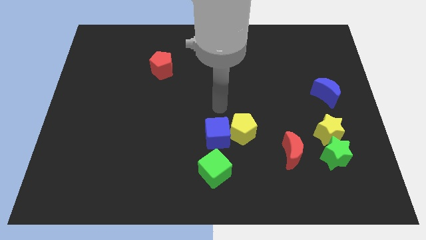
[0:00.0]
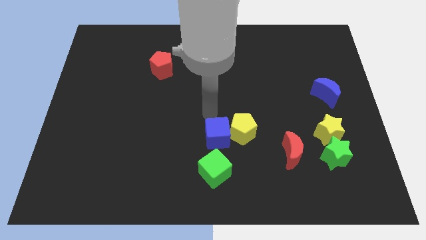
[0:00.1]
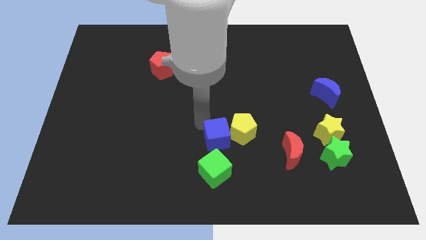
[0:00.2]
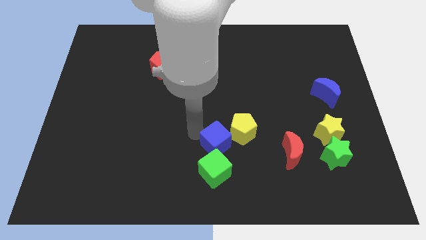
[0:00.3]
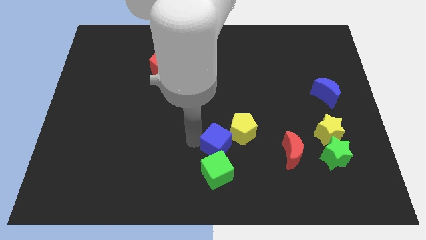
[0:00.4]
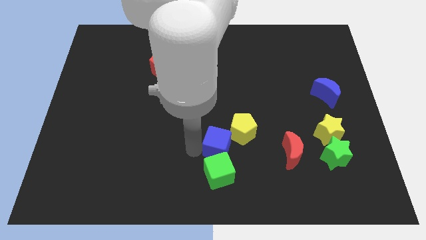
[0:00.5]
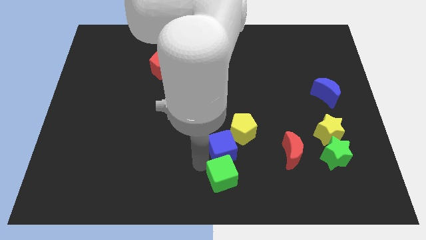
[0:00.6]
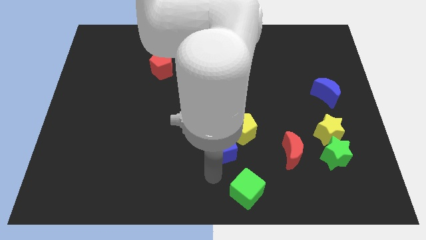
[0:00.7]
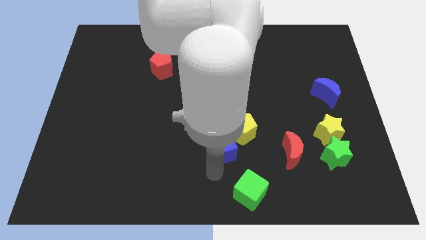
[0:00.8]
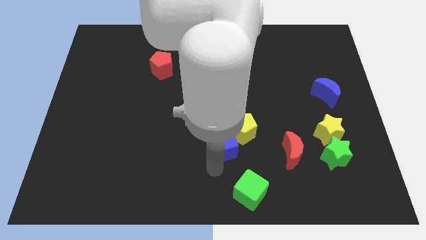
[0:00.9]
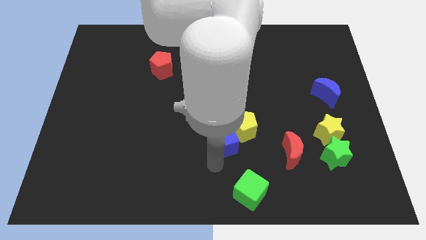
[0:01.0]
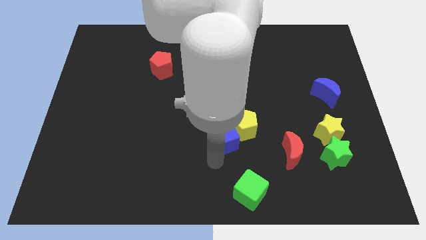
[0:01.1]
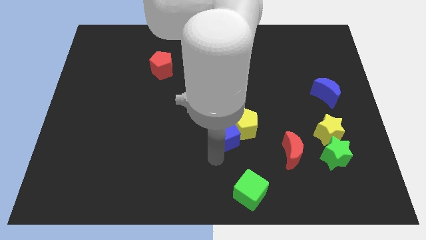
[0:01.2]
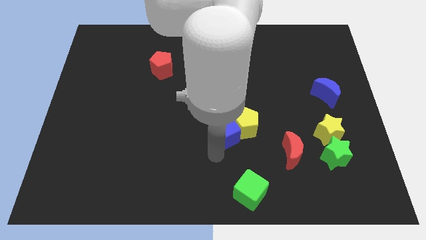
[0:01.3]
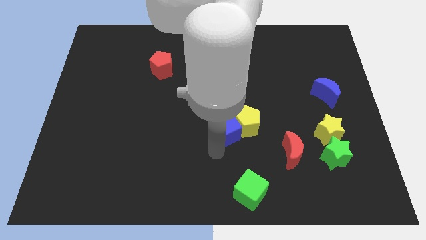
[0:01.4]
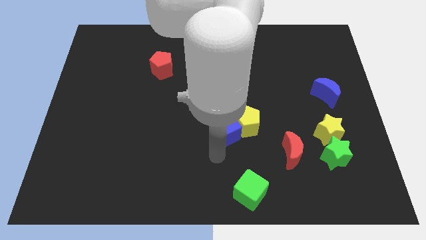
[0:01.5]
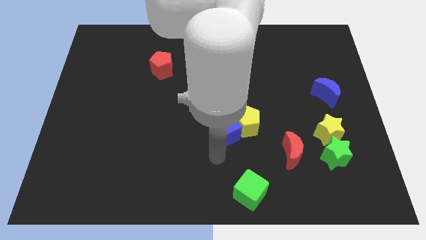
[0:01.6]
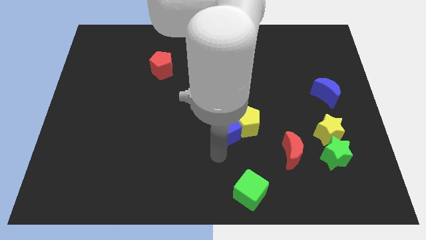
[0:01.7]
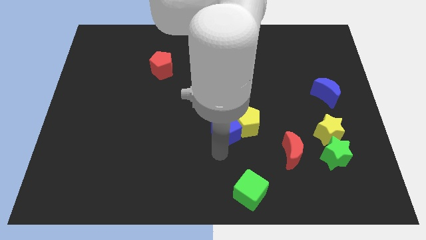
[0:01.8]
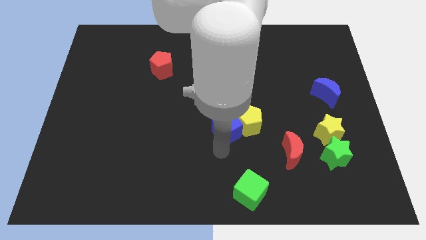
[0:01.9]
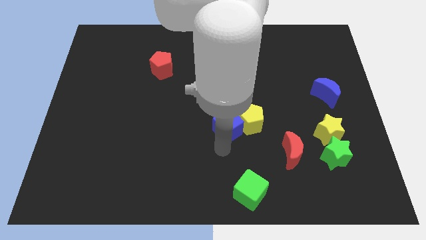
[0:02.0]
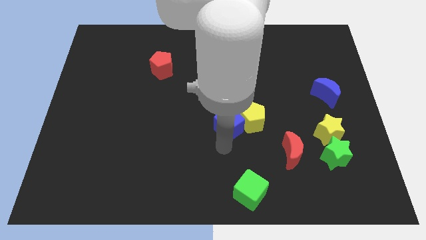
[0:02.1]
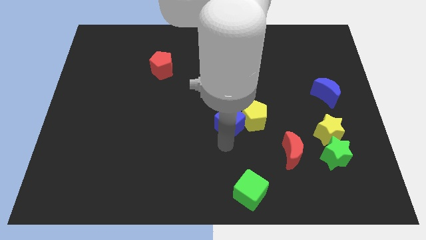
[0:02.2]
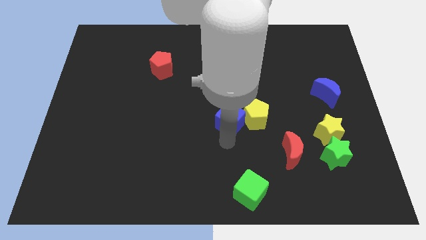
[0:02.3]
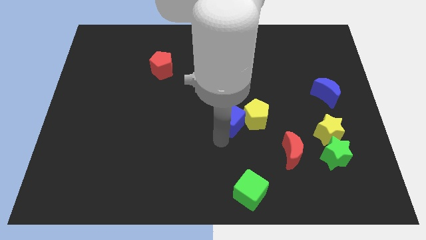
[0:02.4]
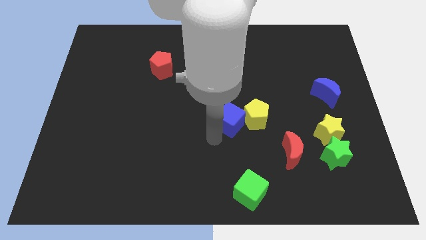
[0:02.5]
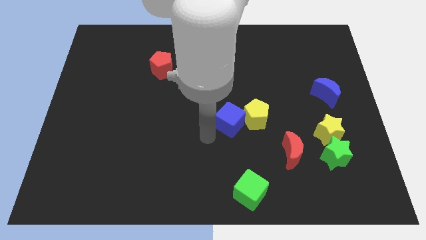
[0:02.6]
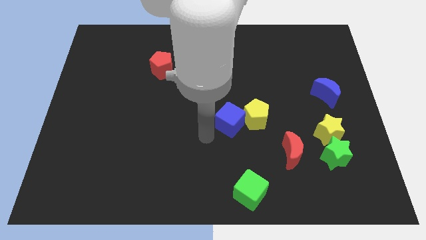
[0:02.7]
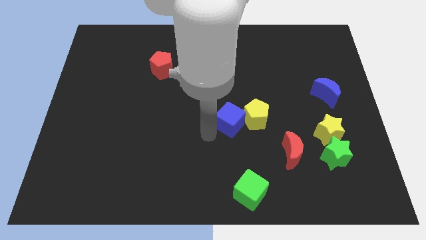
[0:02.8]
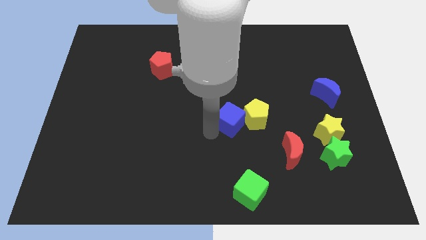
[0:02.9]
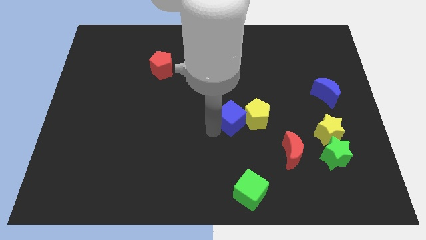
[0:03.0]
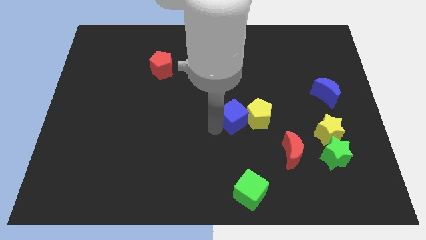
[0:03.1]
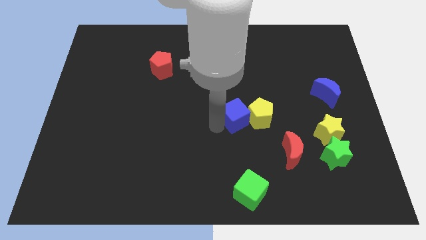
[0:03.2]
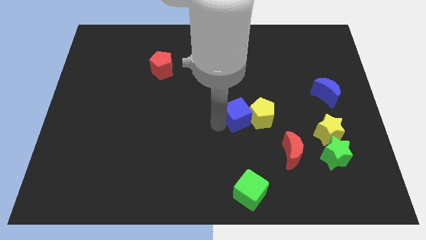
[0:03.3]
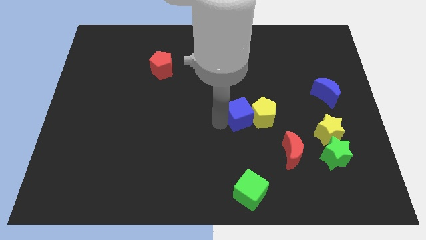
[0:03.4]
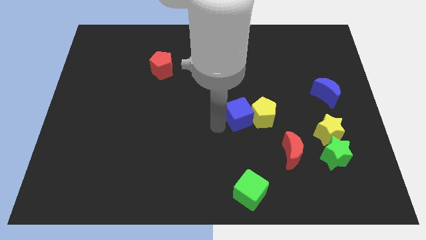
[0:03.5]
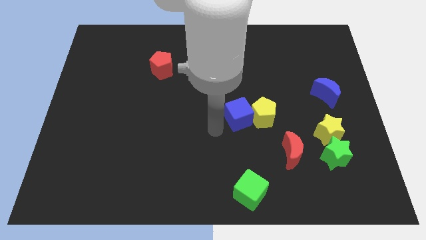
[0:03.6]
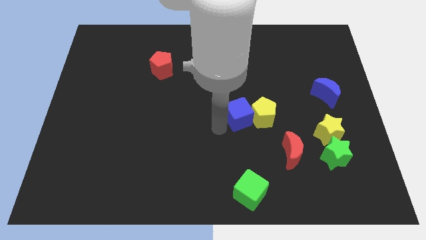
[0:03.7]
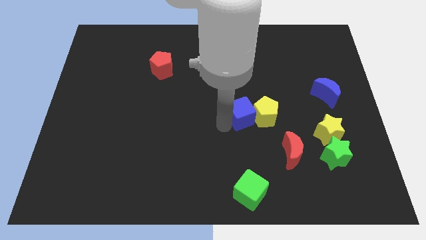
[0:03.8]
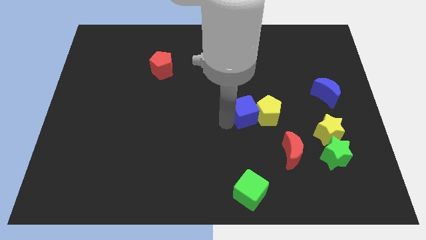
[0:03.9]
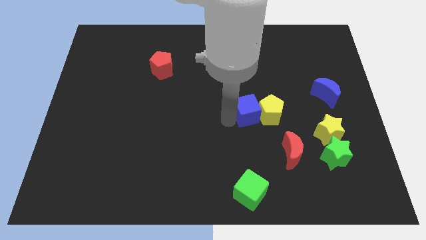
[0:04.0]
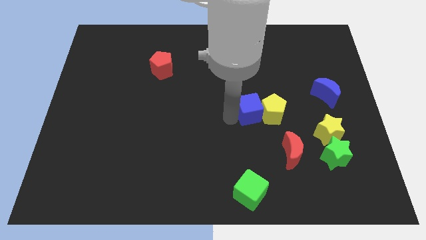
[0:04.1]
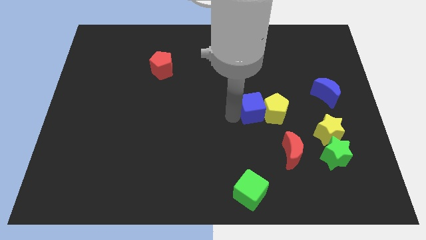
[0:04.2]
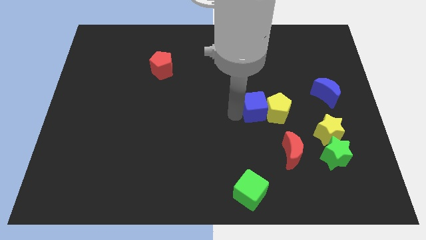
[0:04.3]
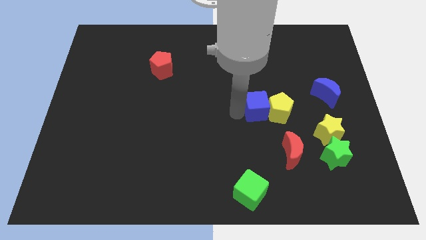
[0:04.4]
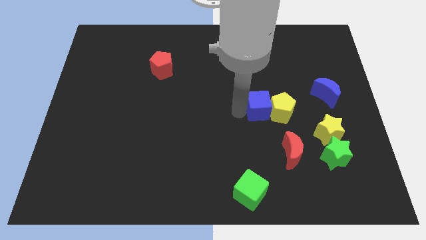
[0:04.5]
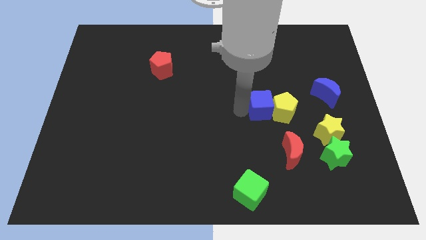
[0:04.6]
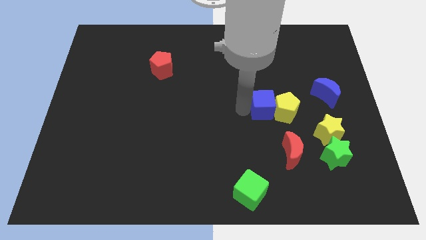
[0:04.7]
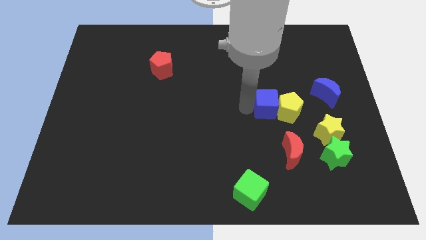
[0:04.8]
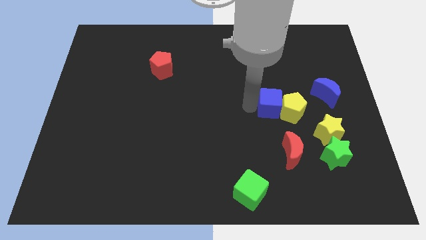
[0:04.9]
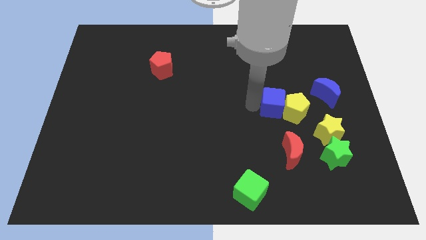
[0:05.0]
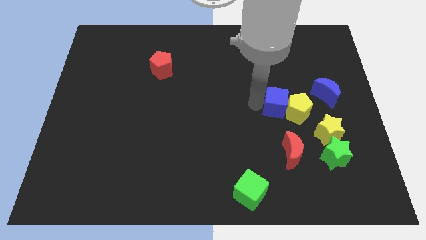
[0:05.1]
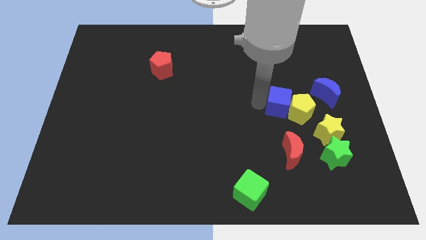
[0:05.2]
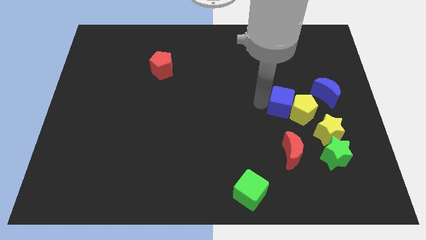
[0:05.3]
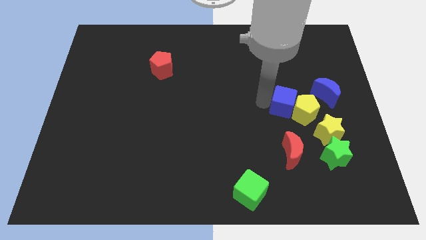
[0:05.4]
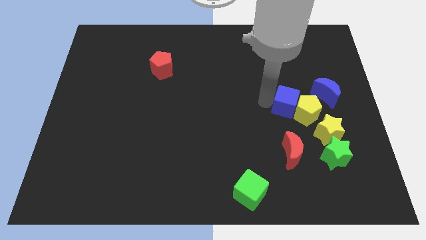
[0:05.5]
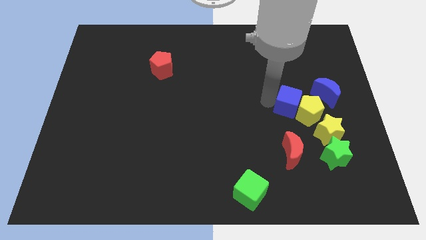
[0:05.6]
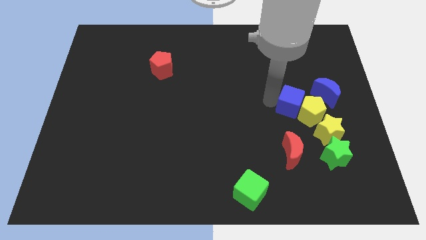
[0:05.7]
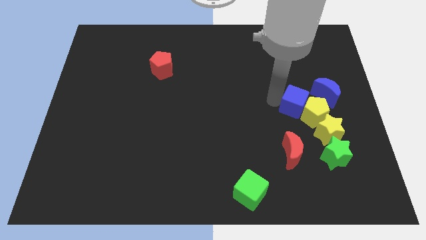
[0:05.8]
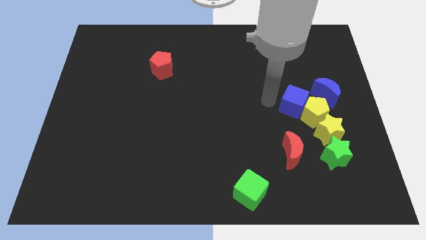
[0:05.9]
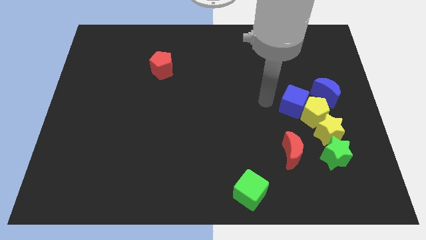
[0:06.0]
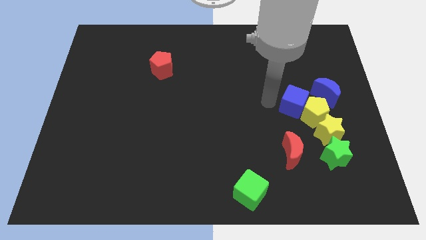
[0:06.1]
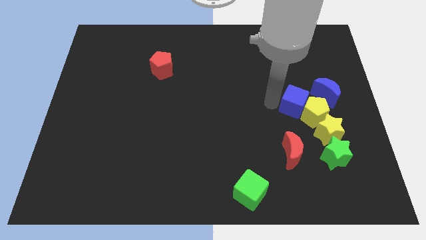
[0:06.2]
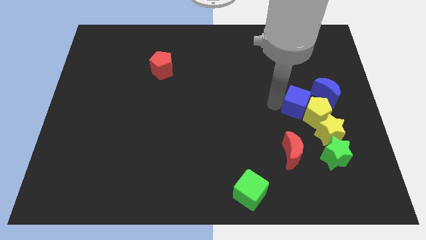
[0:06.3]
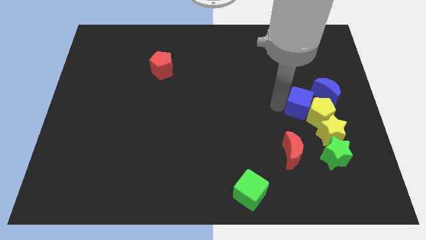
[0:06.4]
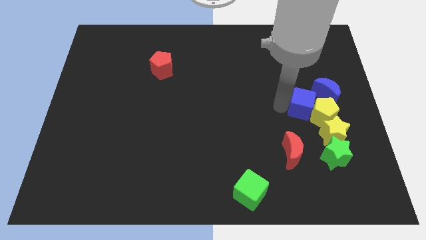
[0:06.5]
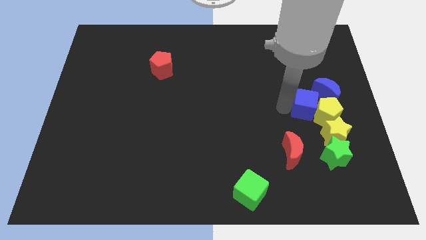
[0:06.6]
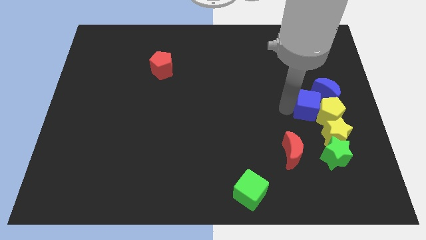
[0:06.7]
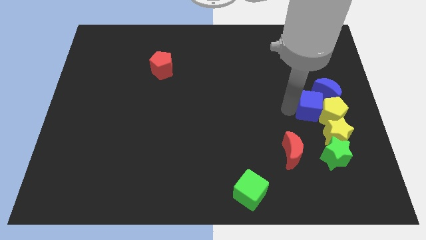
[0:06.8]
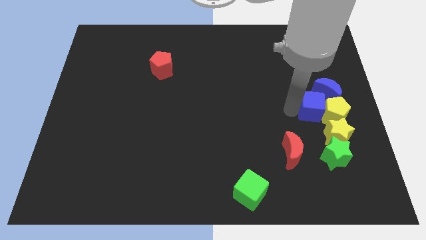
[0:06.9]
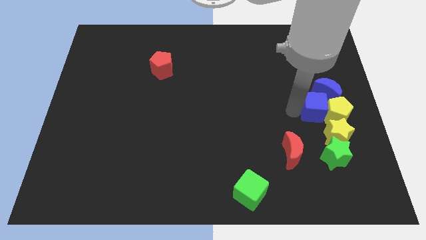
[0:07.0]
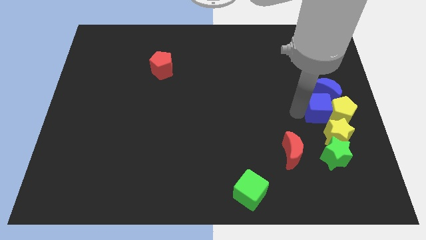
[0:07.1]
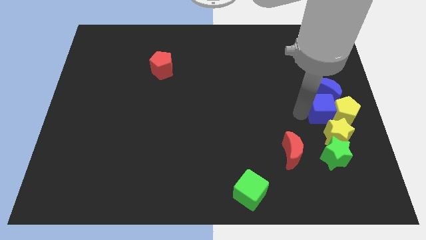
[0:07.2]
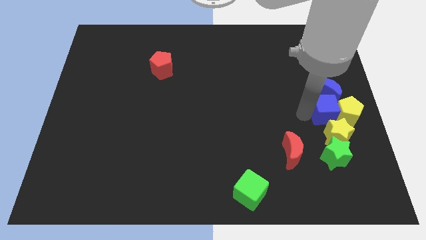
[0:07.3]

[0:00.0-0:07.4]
put the blue cube to the right side

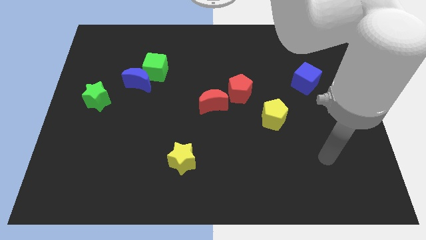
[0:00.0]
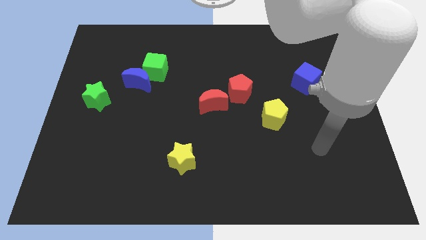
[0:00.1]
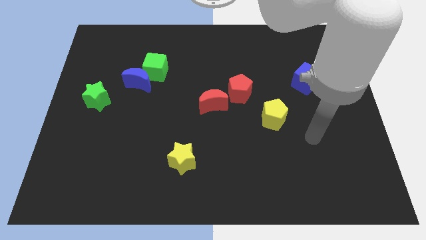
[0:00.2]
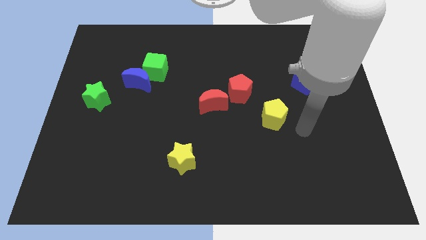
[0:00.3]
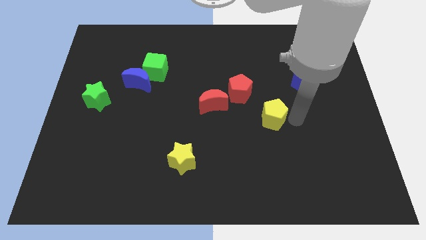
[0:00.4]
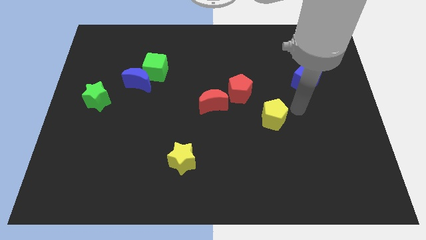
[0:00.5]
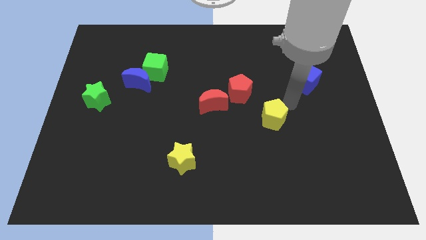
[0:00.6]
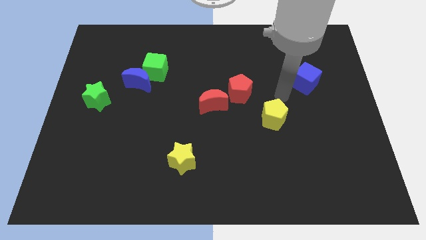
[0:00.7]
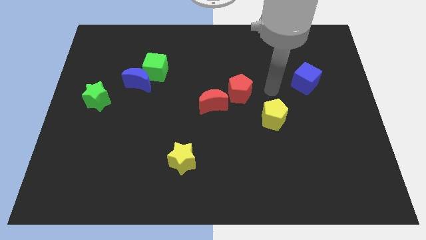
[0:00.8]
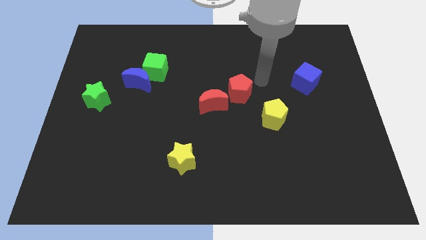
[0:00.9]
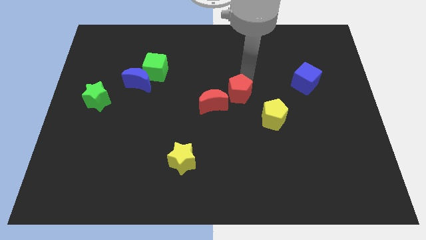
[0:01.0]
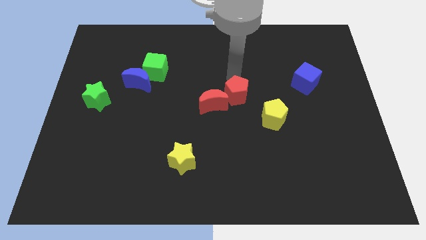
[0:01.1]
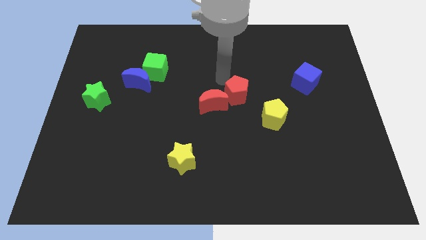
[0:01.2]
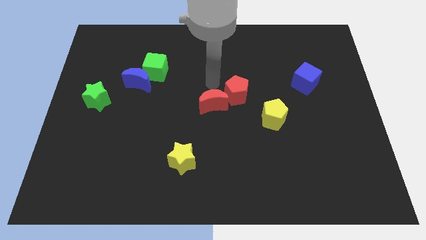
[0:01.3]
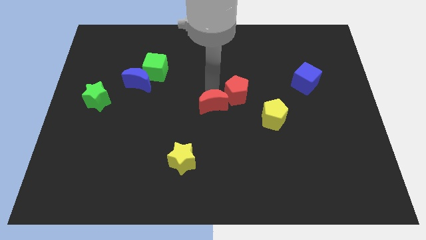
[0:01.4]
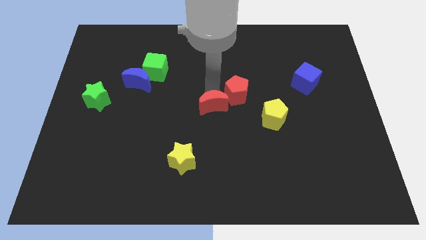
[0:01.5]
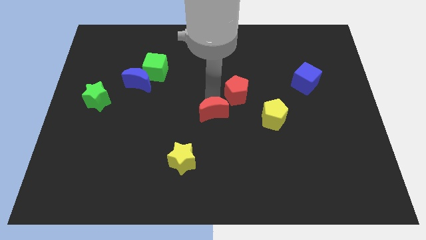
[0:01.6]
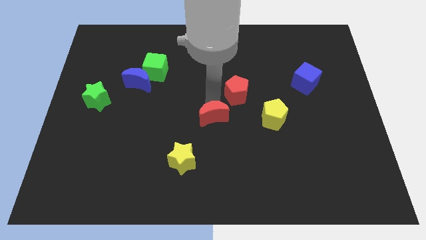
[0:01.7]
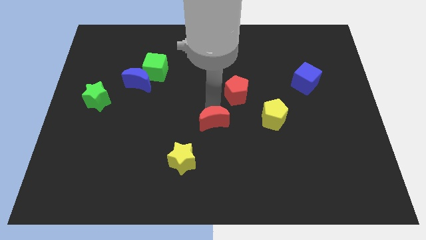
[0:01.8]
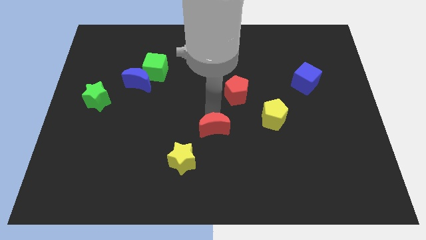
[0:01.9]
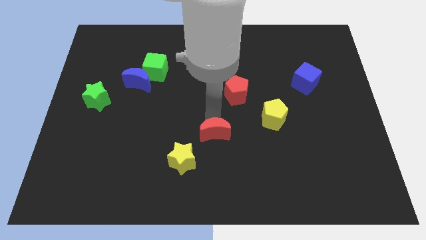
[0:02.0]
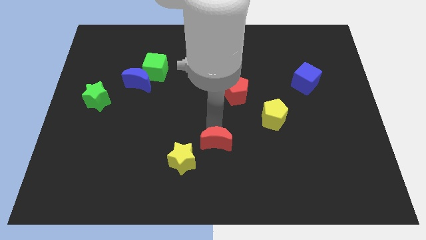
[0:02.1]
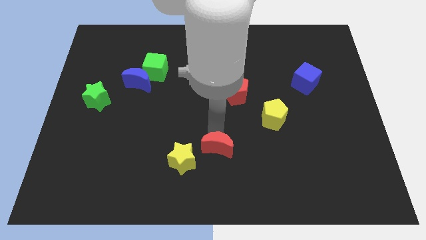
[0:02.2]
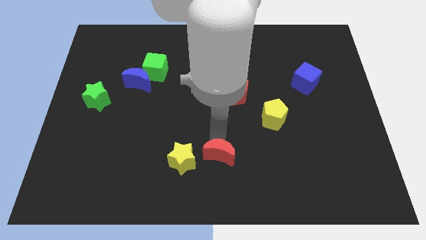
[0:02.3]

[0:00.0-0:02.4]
push the red moon to the bottom side
